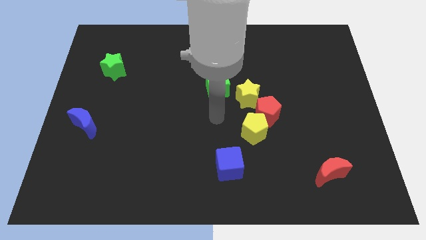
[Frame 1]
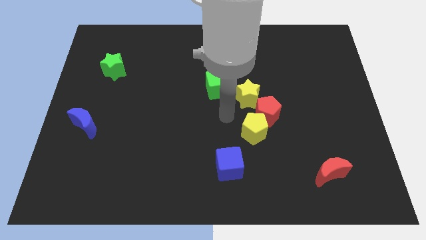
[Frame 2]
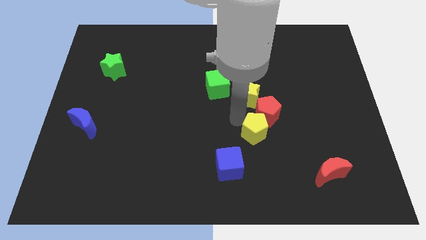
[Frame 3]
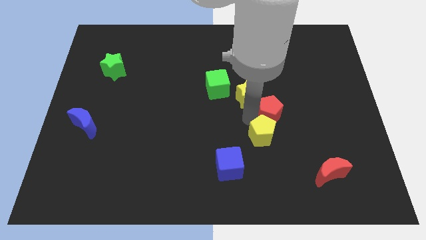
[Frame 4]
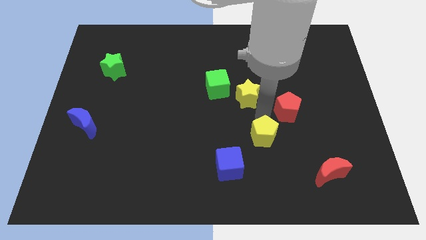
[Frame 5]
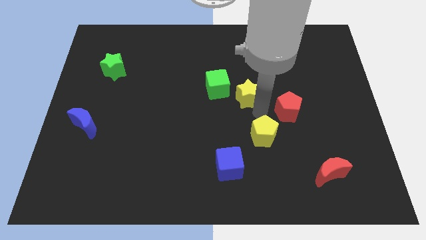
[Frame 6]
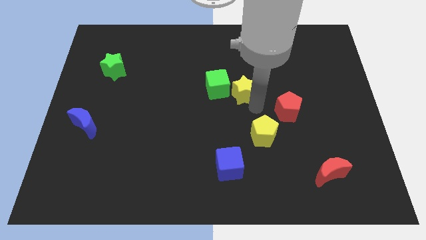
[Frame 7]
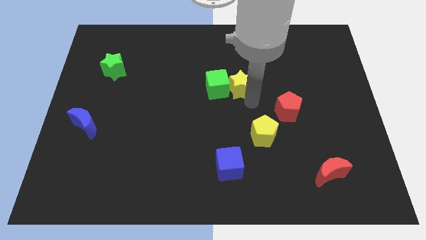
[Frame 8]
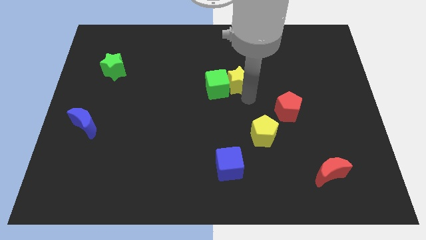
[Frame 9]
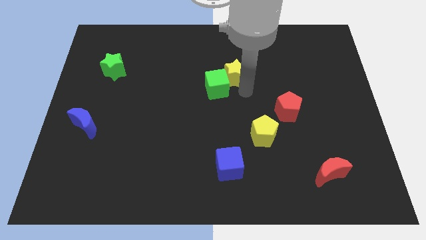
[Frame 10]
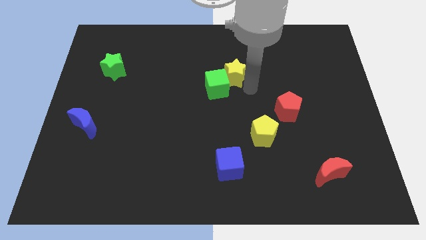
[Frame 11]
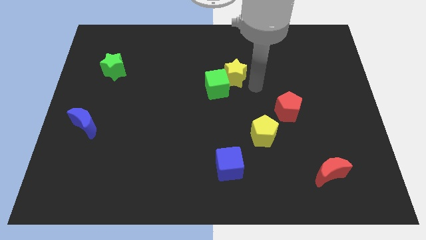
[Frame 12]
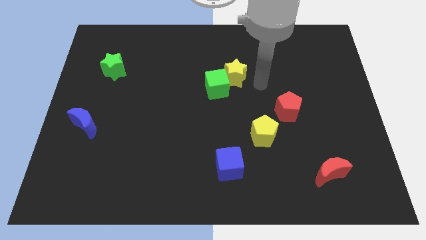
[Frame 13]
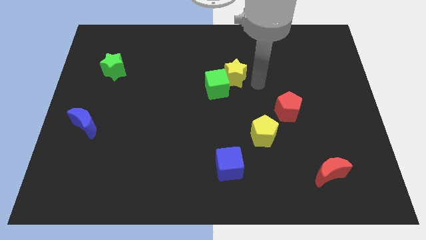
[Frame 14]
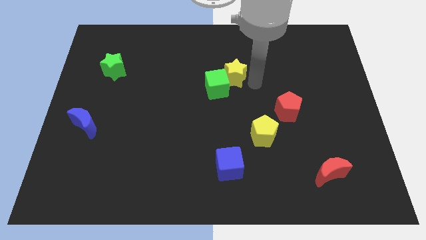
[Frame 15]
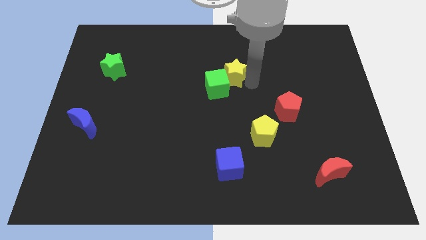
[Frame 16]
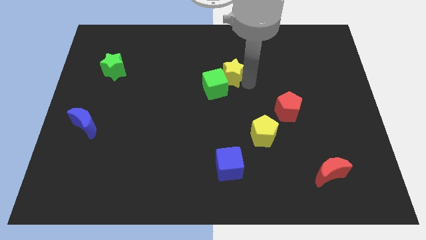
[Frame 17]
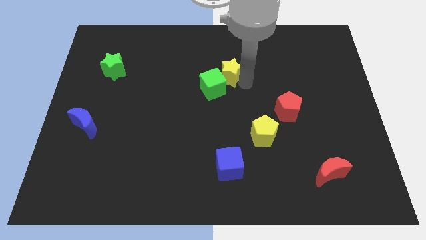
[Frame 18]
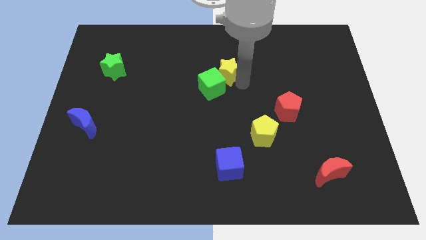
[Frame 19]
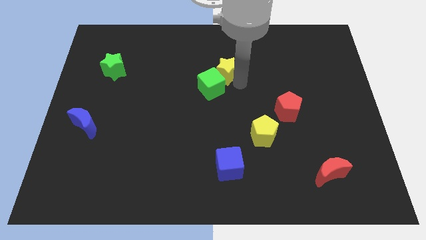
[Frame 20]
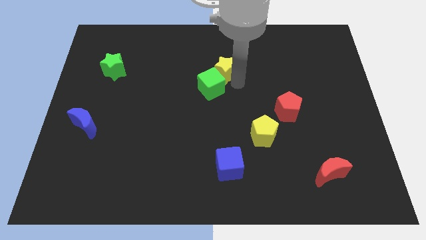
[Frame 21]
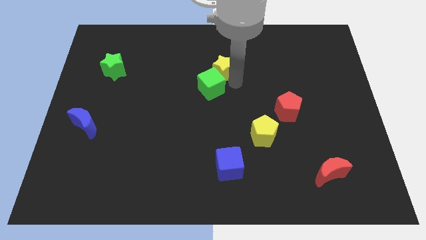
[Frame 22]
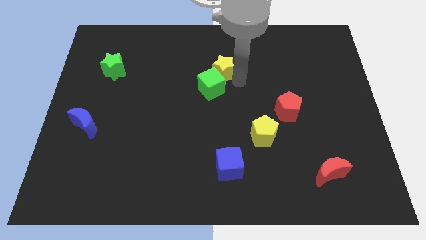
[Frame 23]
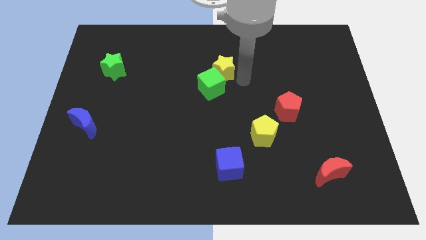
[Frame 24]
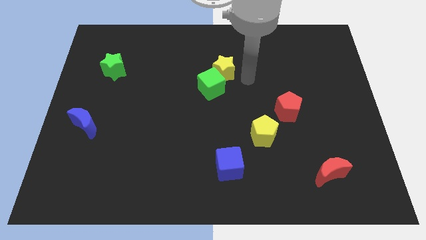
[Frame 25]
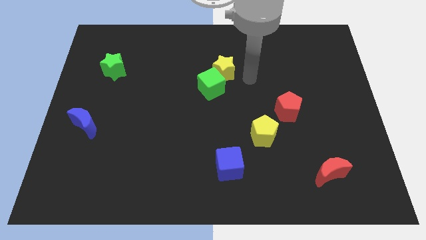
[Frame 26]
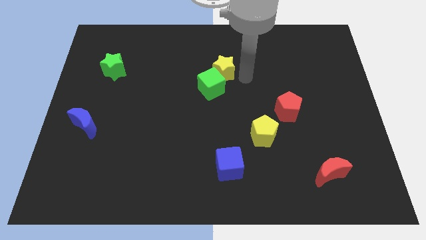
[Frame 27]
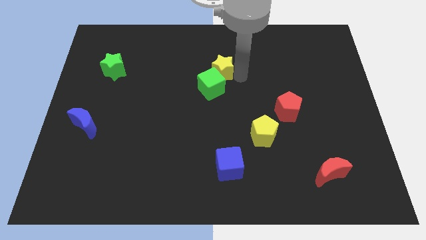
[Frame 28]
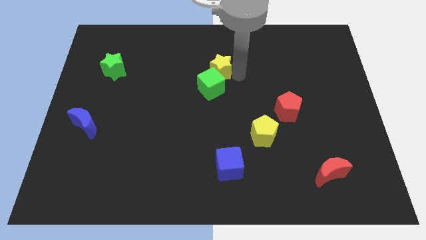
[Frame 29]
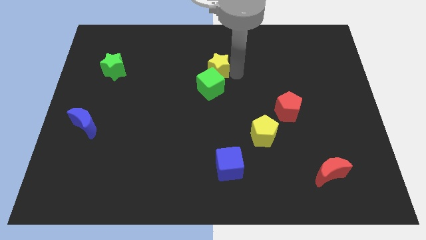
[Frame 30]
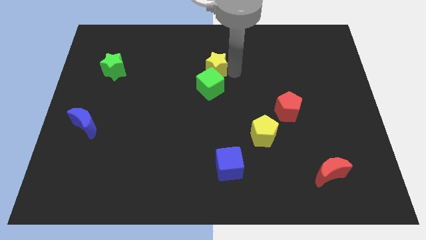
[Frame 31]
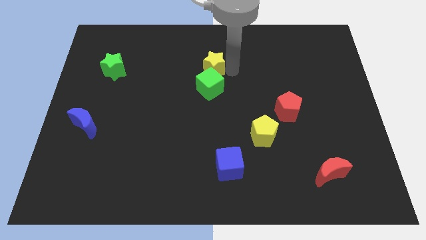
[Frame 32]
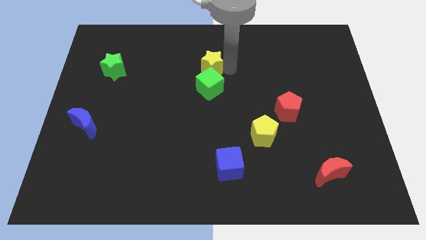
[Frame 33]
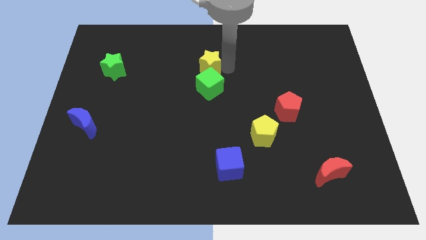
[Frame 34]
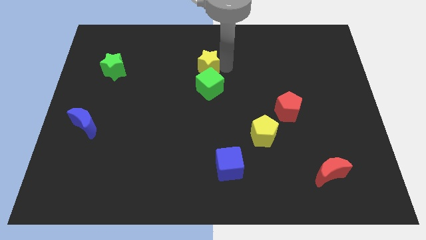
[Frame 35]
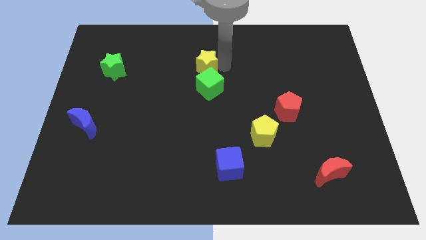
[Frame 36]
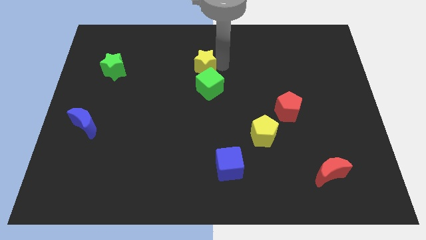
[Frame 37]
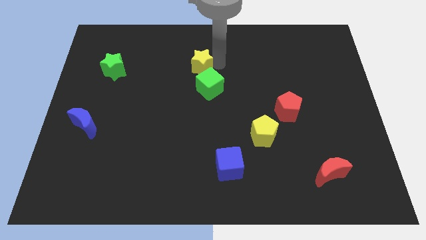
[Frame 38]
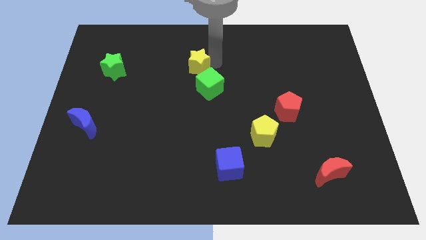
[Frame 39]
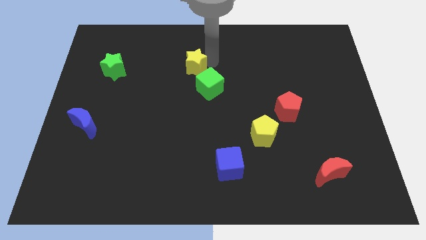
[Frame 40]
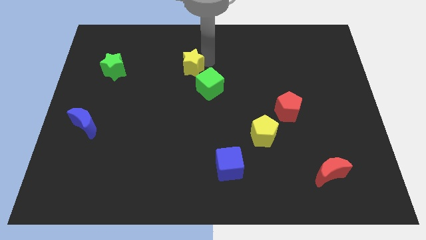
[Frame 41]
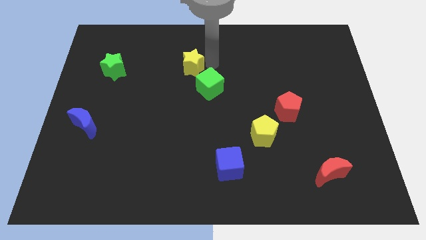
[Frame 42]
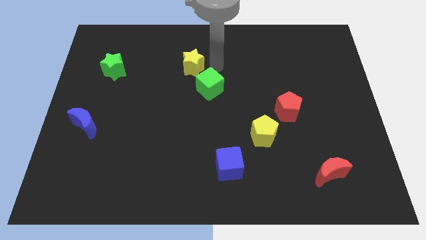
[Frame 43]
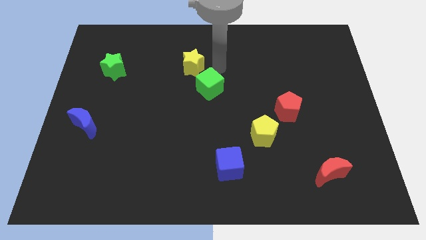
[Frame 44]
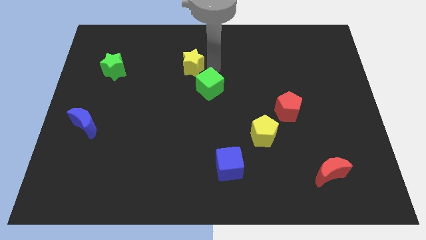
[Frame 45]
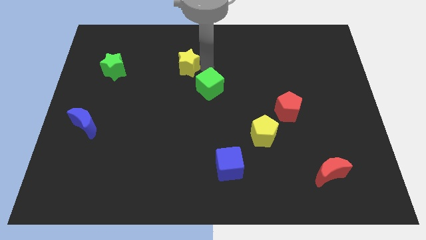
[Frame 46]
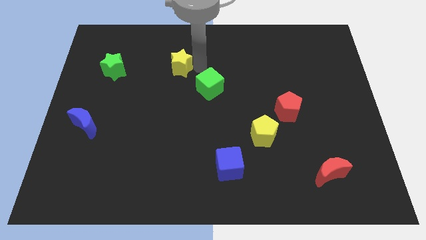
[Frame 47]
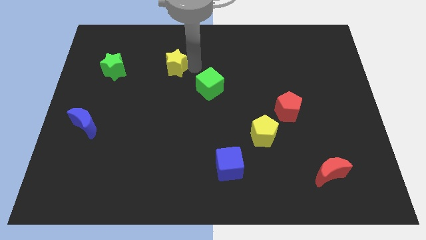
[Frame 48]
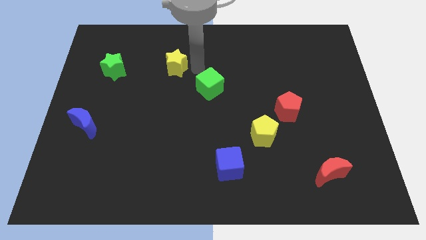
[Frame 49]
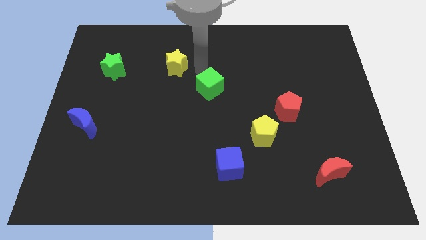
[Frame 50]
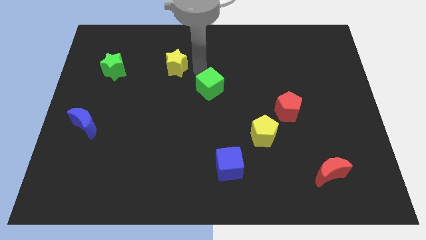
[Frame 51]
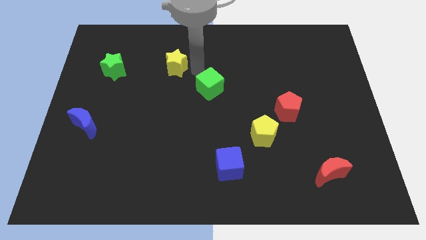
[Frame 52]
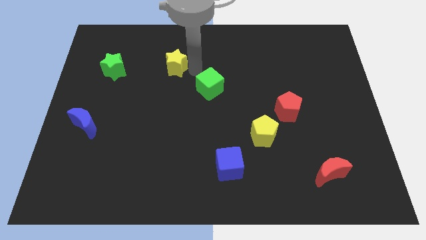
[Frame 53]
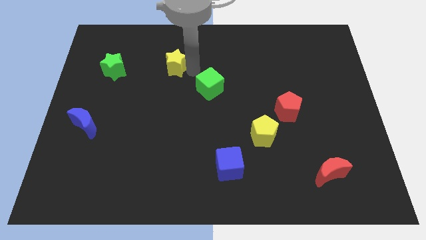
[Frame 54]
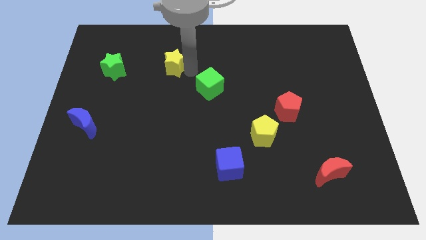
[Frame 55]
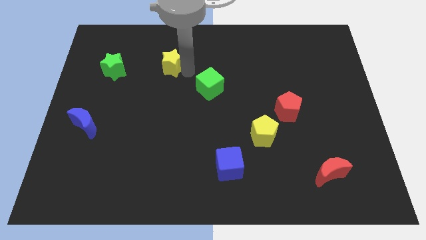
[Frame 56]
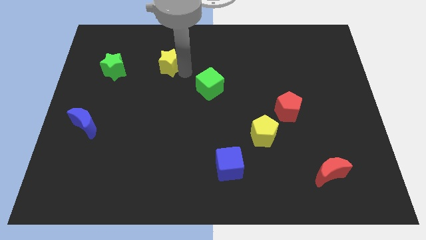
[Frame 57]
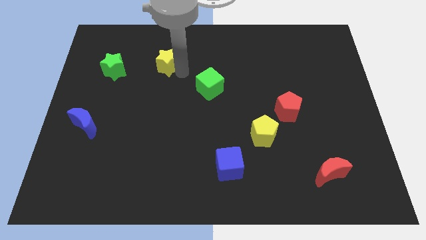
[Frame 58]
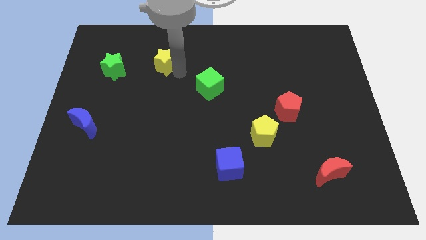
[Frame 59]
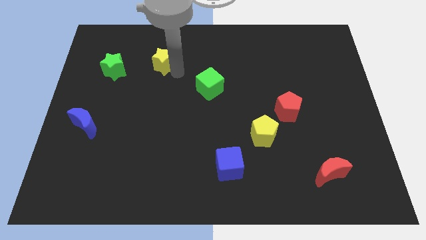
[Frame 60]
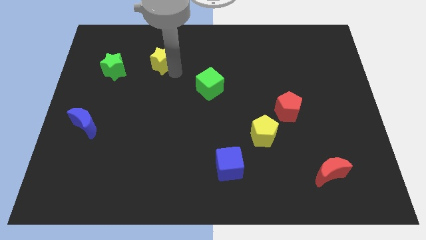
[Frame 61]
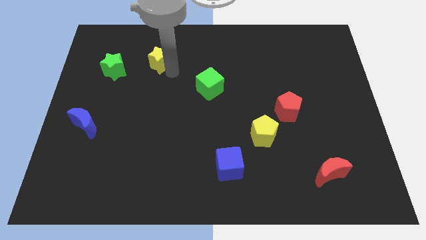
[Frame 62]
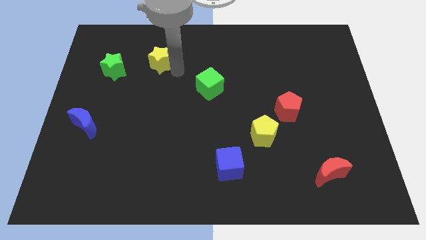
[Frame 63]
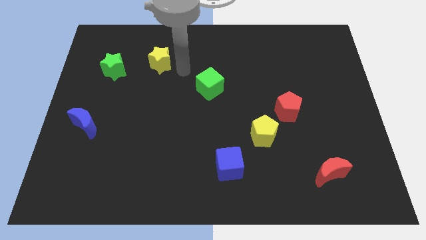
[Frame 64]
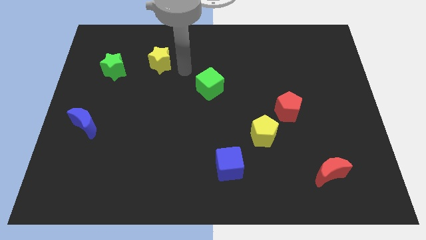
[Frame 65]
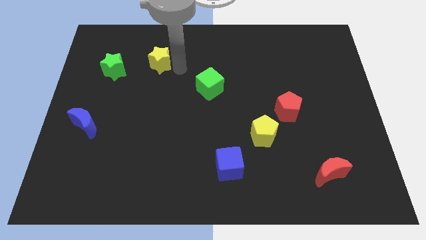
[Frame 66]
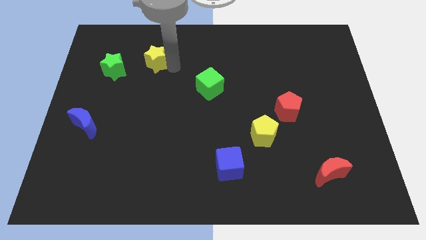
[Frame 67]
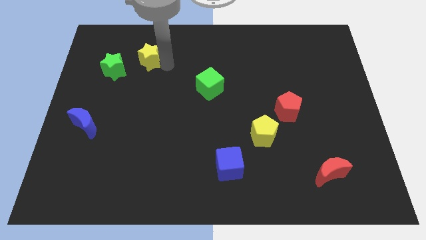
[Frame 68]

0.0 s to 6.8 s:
slide the yellow star diagonally up and to the right of the green star

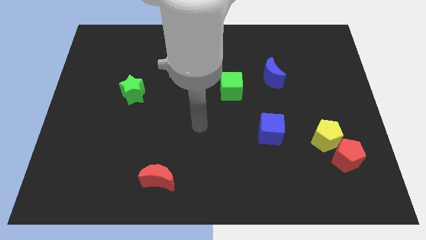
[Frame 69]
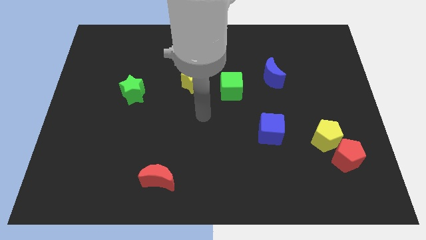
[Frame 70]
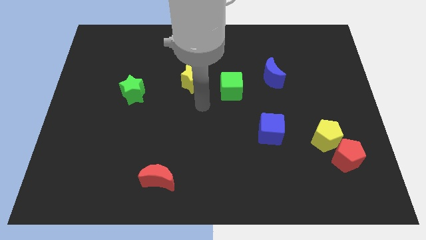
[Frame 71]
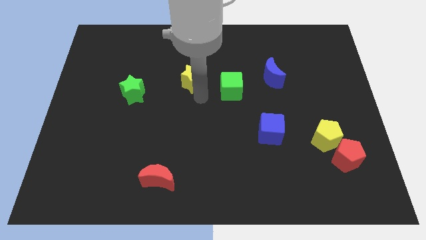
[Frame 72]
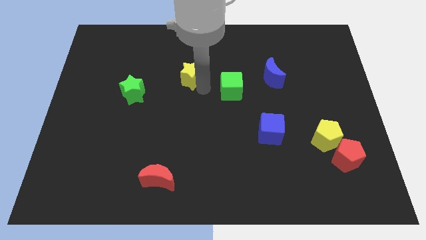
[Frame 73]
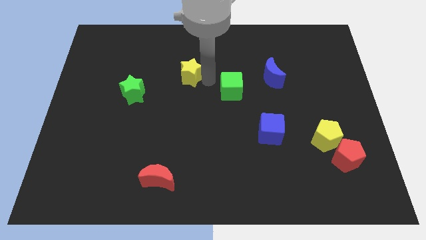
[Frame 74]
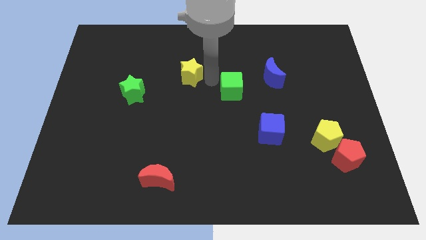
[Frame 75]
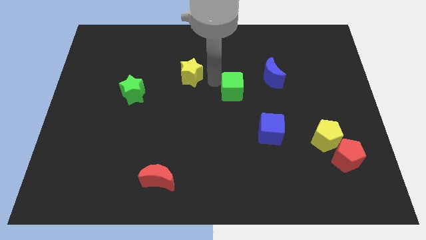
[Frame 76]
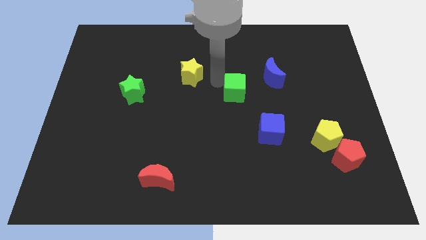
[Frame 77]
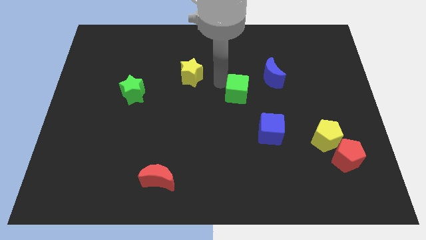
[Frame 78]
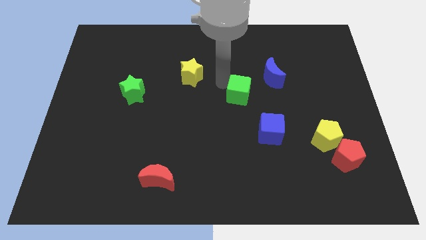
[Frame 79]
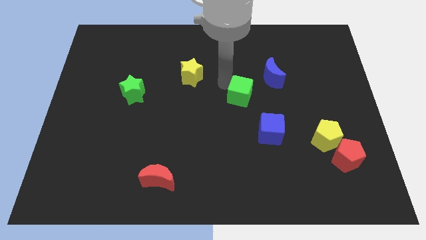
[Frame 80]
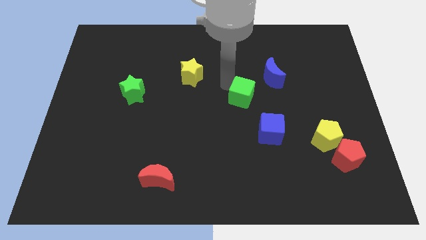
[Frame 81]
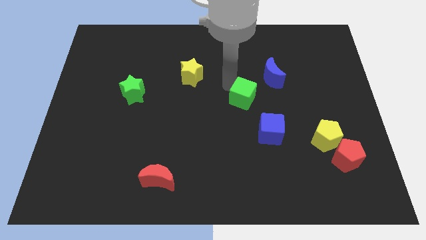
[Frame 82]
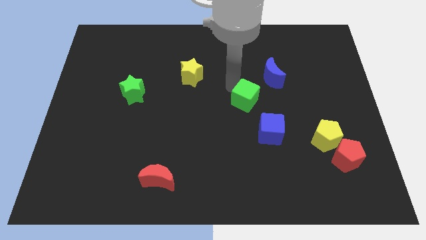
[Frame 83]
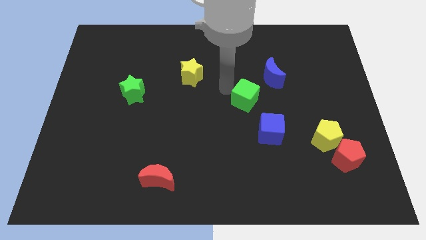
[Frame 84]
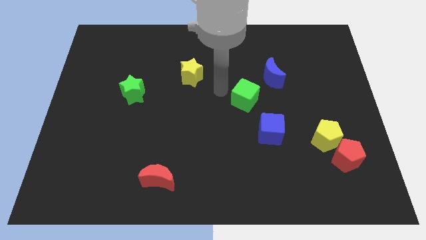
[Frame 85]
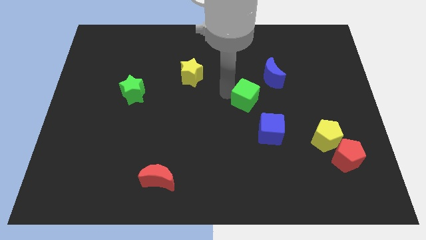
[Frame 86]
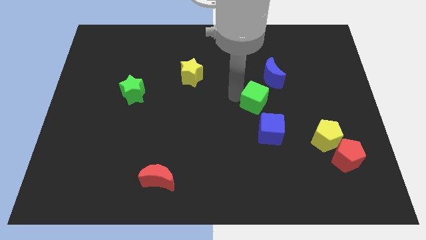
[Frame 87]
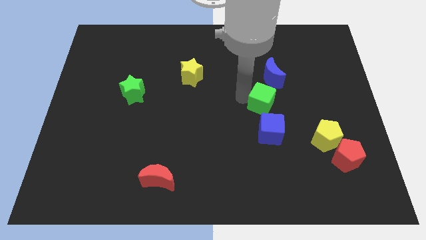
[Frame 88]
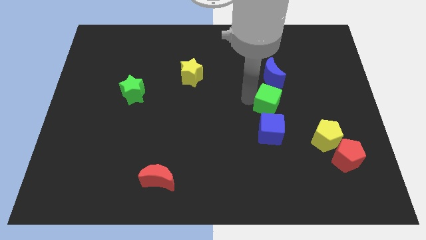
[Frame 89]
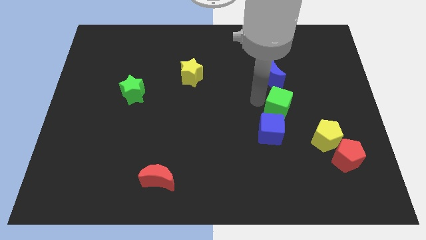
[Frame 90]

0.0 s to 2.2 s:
slide the green cube to the top left of the yellow pentagon
